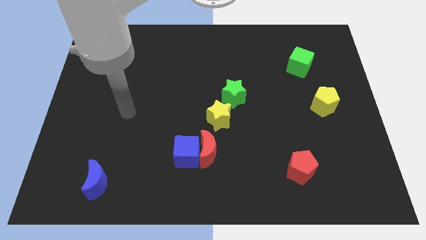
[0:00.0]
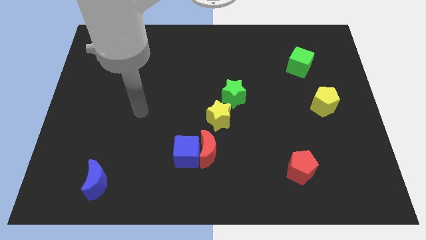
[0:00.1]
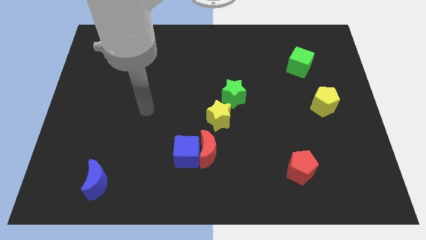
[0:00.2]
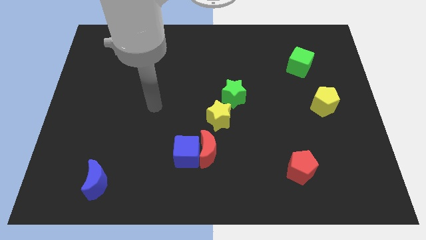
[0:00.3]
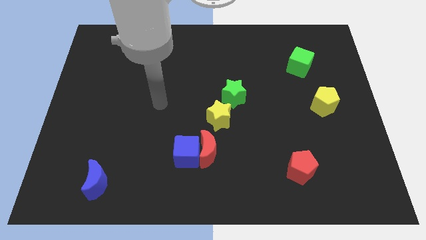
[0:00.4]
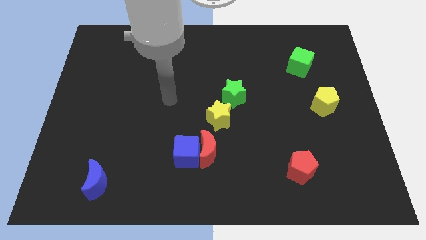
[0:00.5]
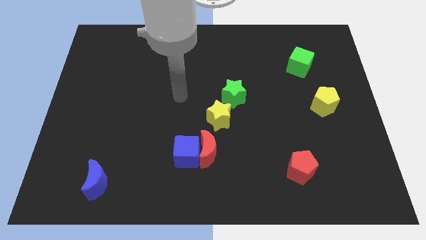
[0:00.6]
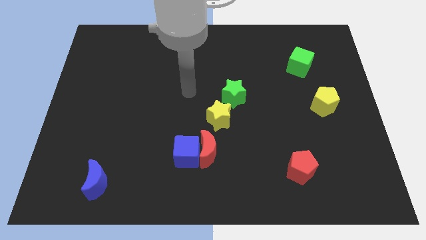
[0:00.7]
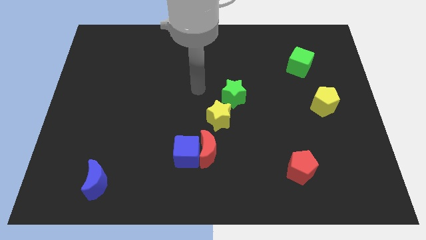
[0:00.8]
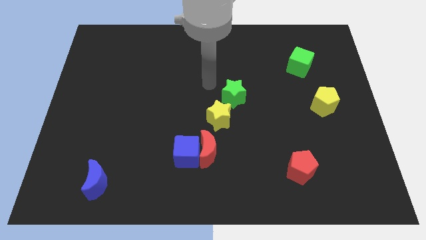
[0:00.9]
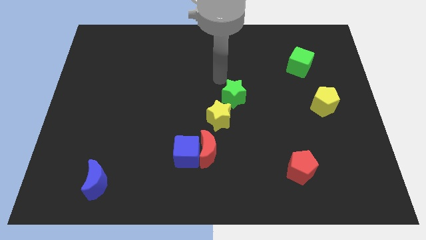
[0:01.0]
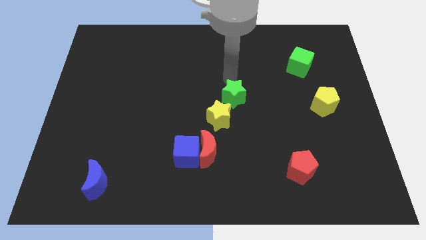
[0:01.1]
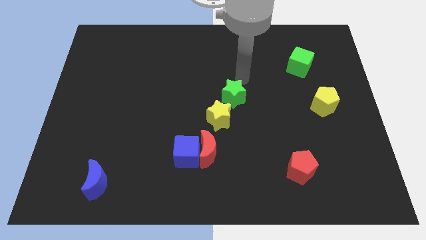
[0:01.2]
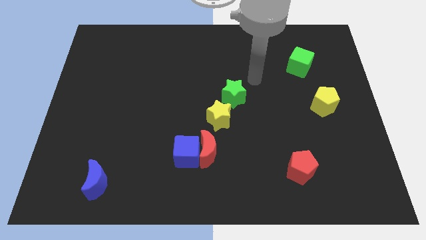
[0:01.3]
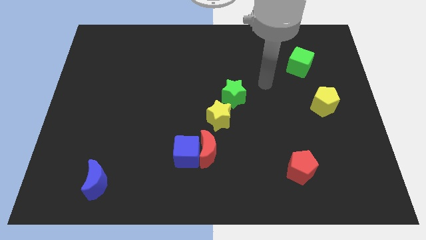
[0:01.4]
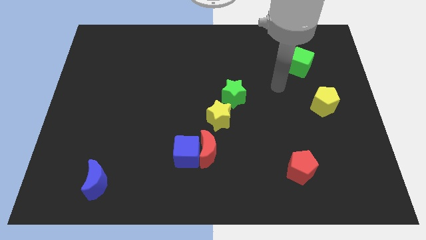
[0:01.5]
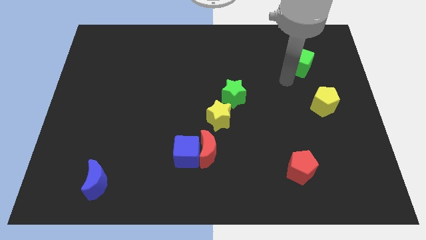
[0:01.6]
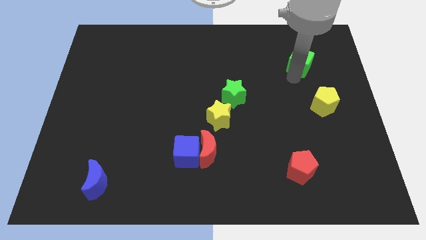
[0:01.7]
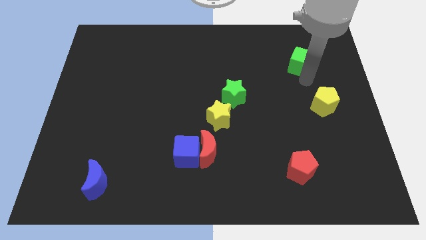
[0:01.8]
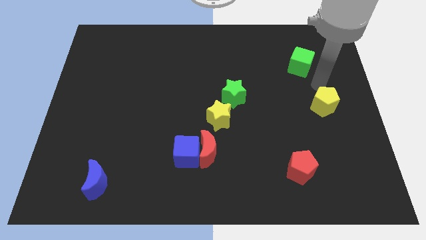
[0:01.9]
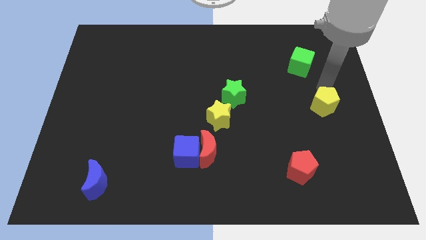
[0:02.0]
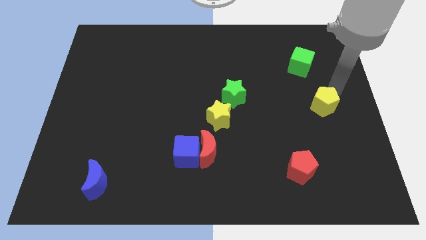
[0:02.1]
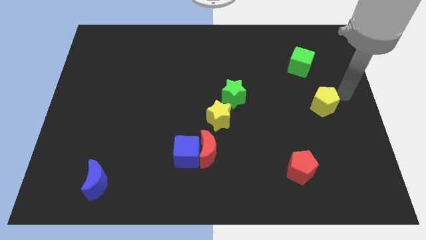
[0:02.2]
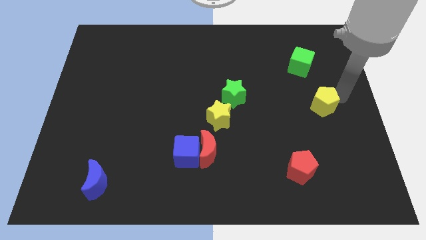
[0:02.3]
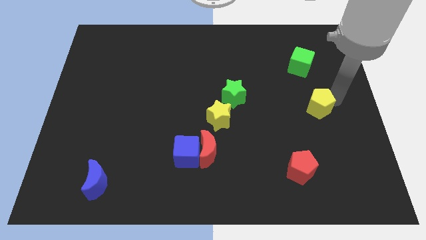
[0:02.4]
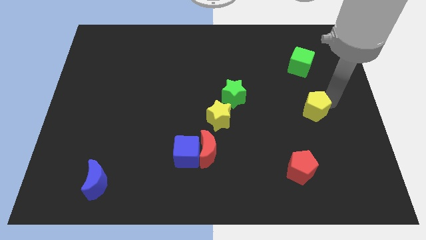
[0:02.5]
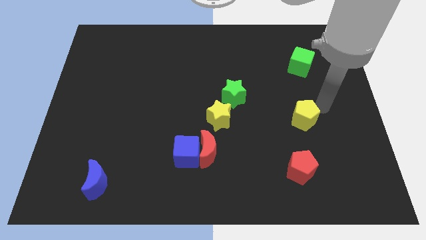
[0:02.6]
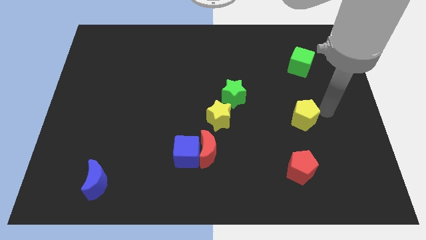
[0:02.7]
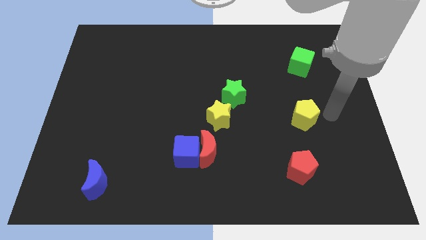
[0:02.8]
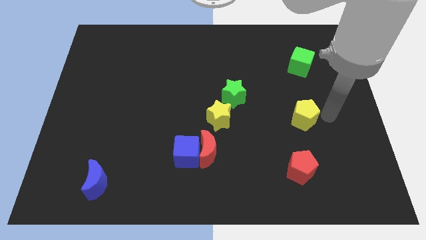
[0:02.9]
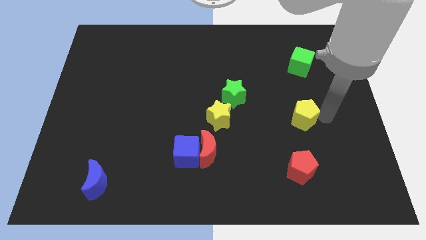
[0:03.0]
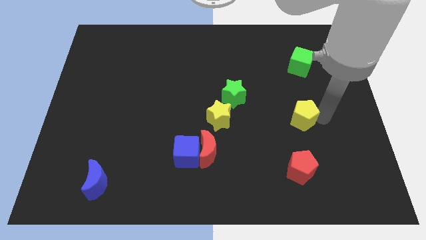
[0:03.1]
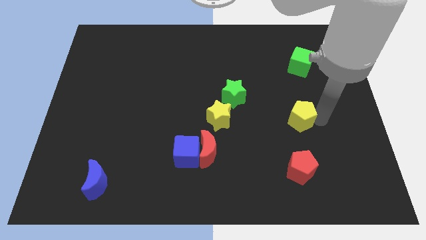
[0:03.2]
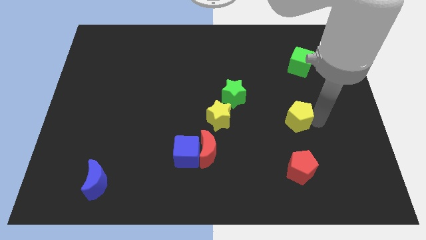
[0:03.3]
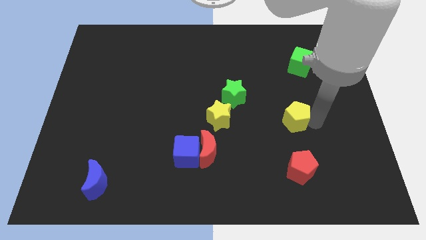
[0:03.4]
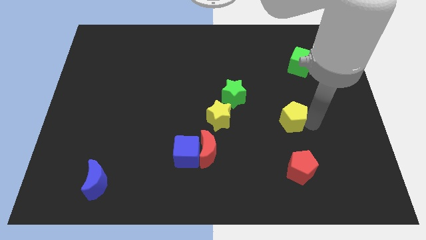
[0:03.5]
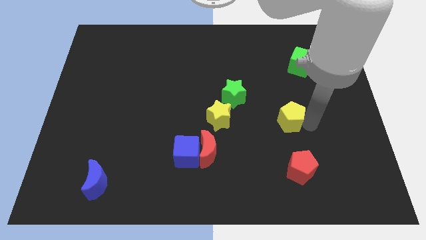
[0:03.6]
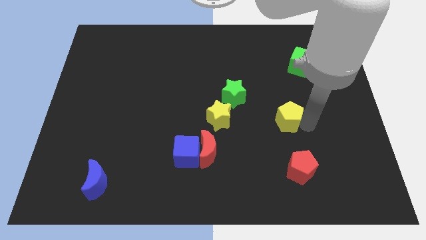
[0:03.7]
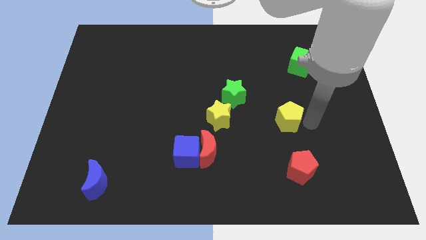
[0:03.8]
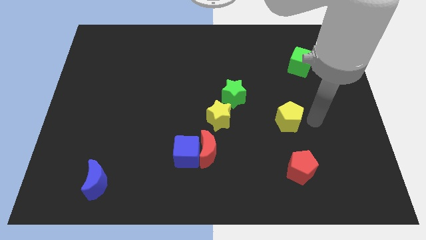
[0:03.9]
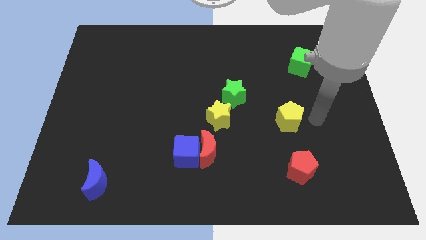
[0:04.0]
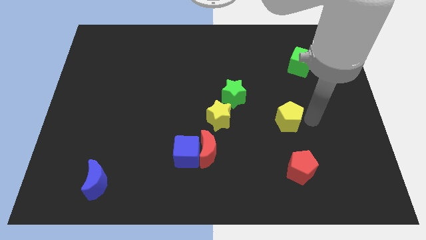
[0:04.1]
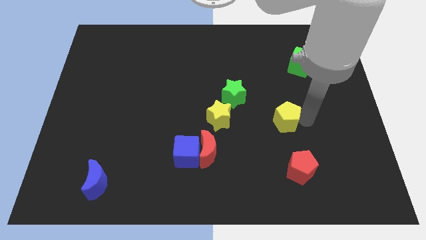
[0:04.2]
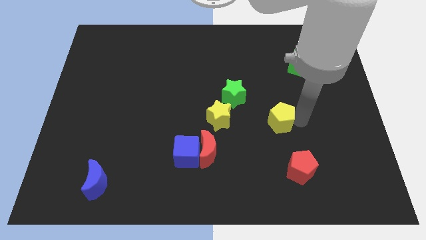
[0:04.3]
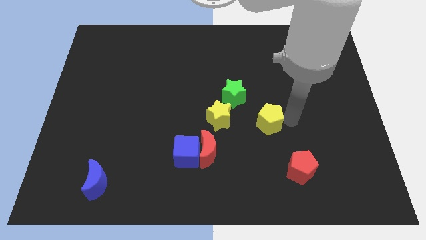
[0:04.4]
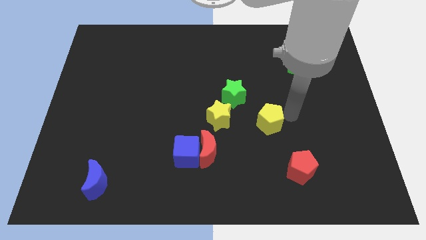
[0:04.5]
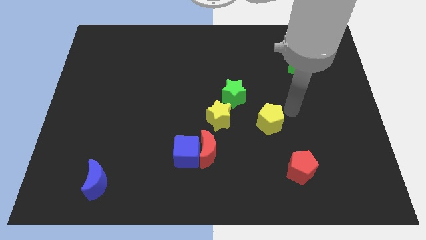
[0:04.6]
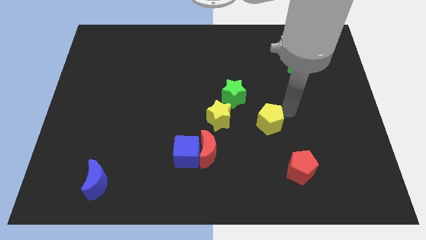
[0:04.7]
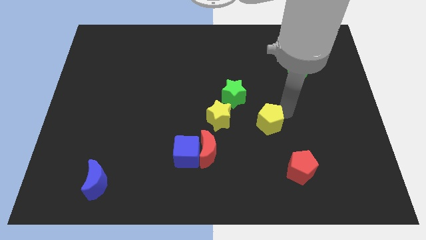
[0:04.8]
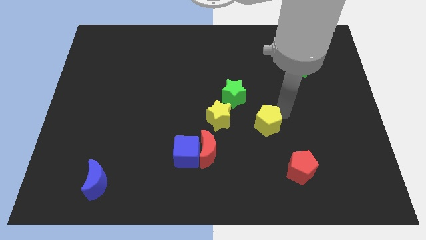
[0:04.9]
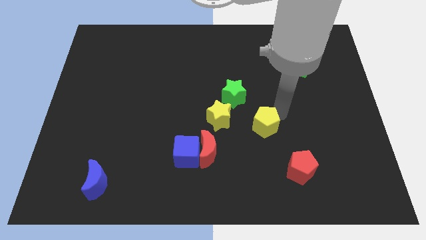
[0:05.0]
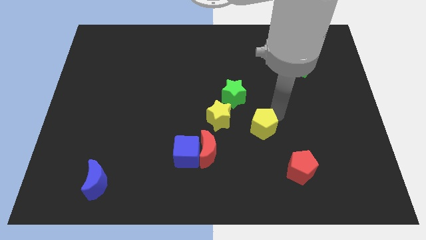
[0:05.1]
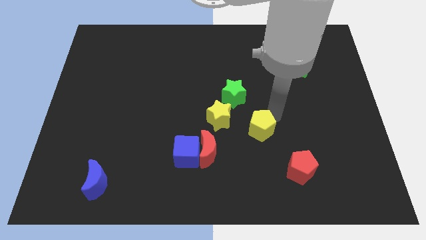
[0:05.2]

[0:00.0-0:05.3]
move the yellow pentagon diagonally down and to the right of the yellow star

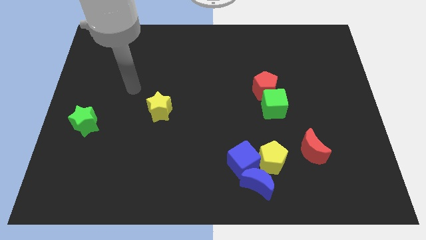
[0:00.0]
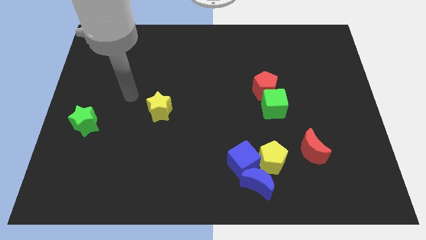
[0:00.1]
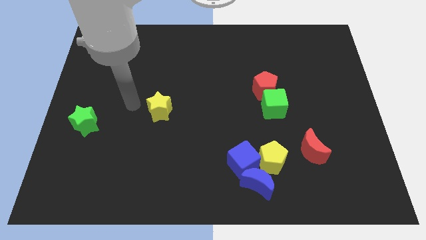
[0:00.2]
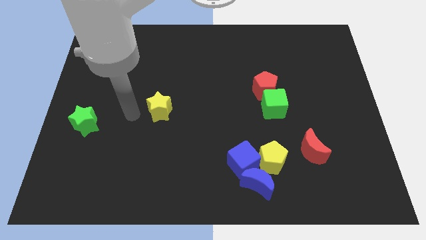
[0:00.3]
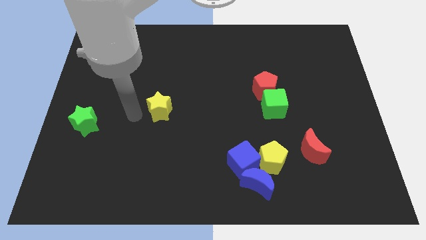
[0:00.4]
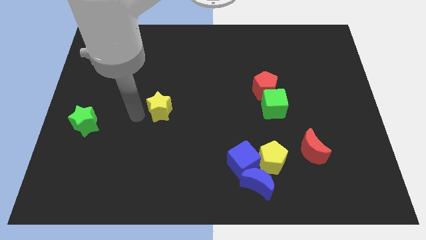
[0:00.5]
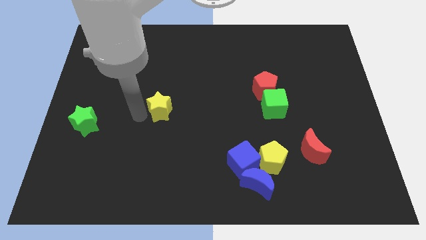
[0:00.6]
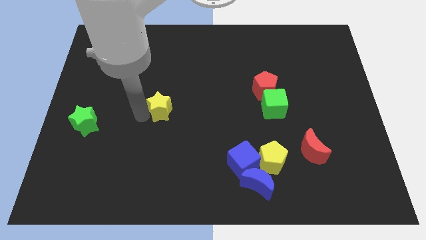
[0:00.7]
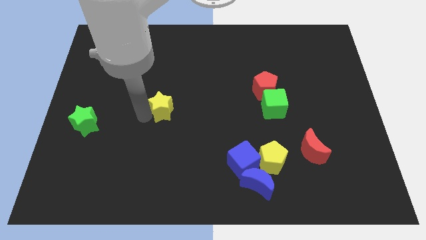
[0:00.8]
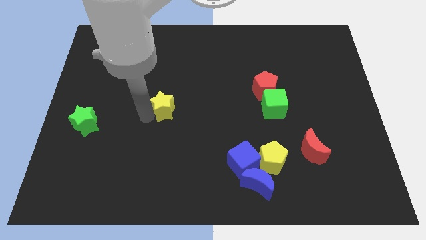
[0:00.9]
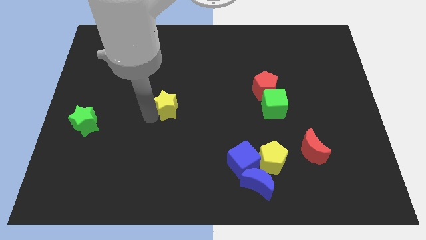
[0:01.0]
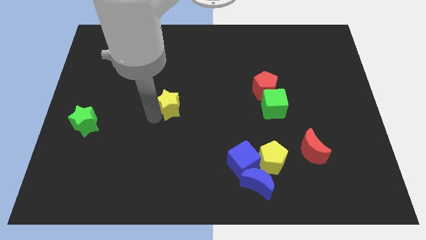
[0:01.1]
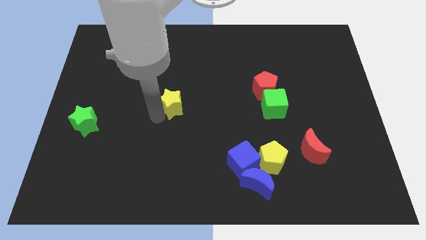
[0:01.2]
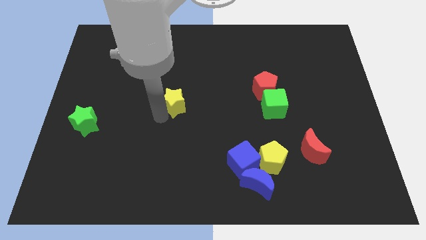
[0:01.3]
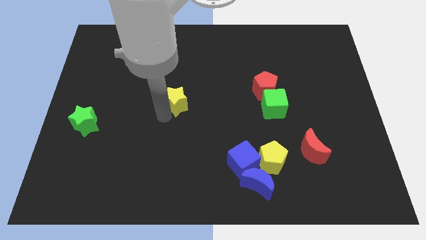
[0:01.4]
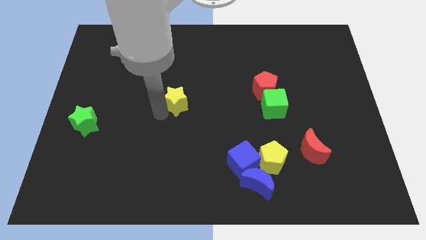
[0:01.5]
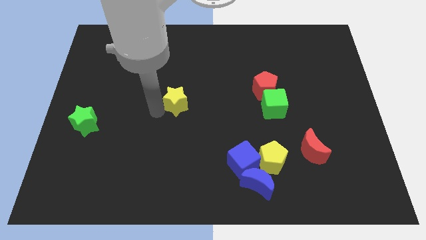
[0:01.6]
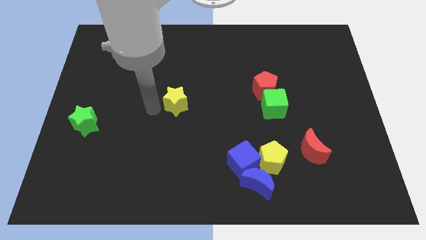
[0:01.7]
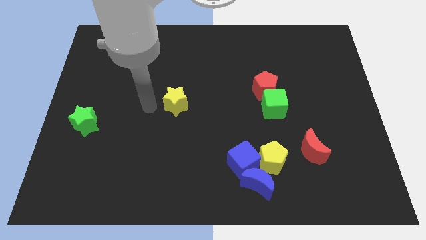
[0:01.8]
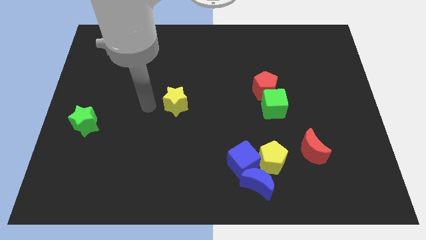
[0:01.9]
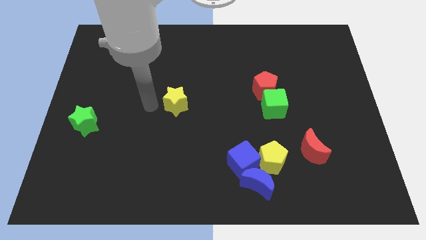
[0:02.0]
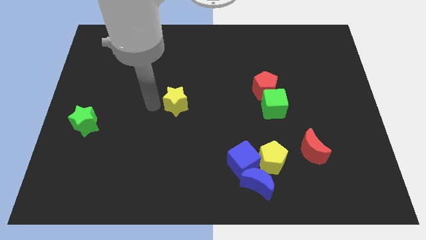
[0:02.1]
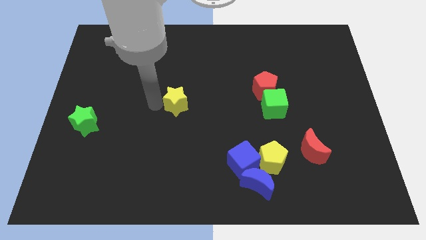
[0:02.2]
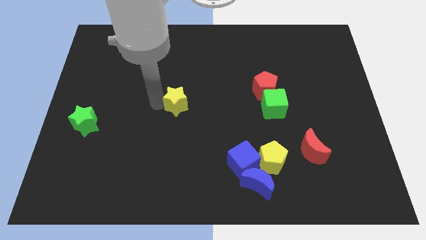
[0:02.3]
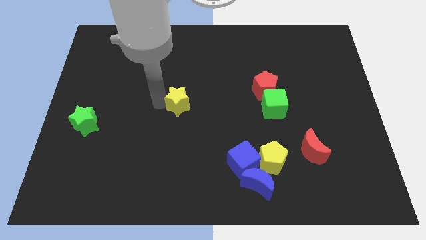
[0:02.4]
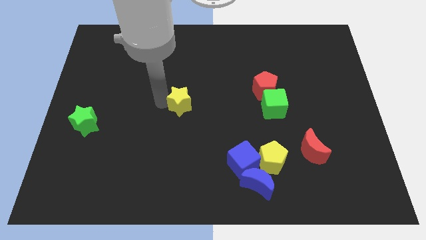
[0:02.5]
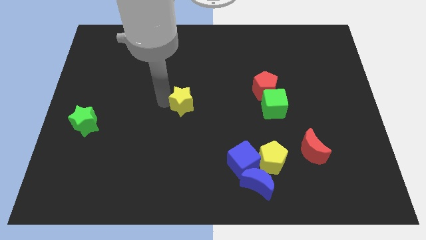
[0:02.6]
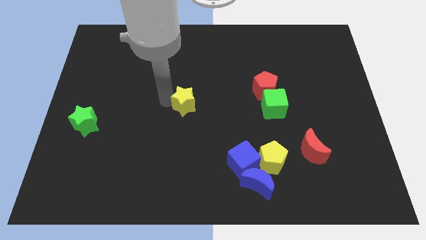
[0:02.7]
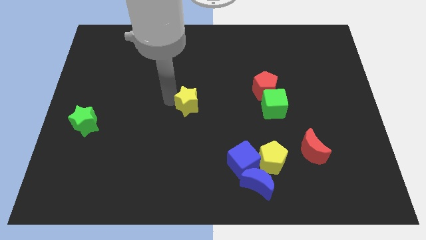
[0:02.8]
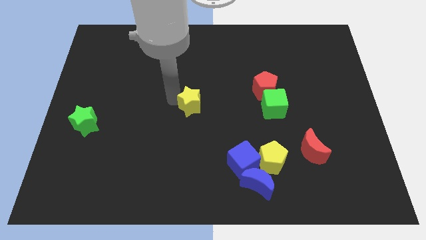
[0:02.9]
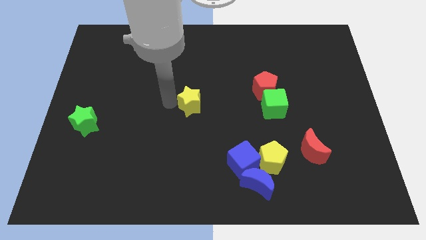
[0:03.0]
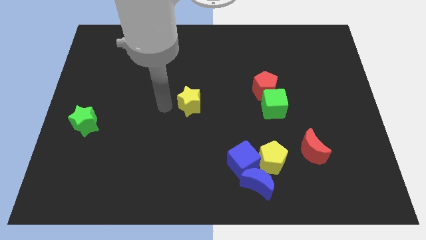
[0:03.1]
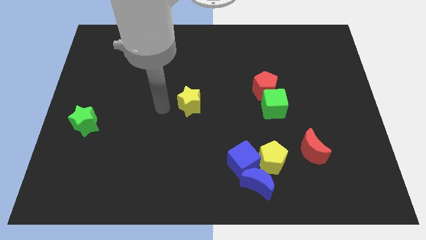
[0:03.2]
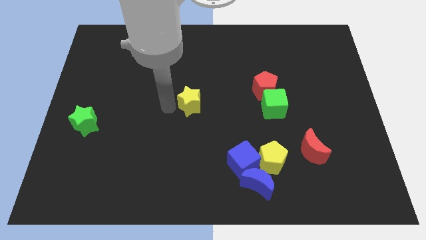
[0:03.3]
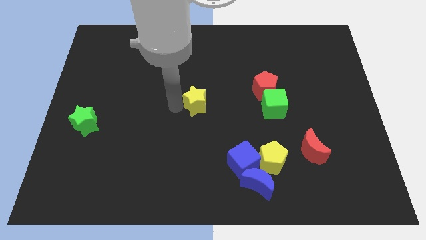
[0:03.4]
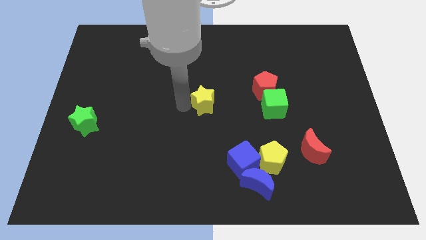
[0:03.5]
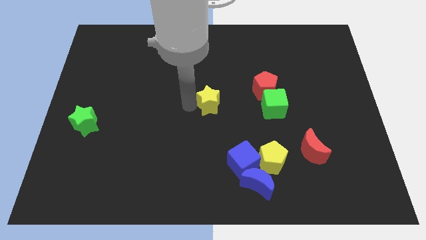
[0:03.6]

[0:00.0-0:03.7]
put the yellow star just left of the green cube
